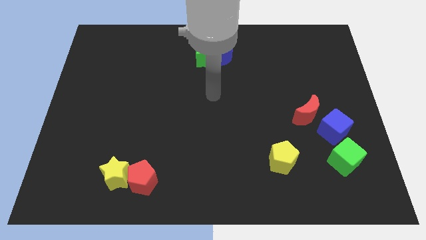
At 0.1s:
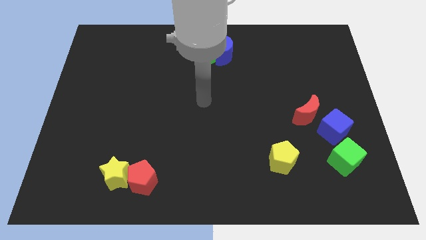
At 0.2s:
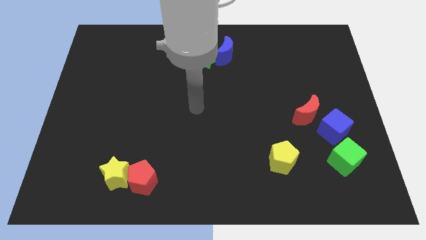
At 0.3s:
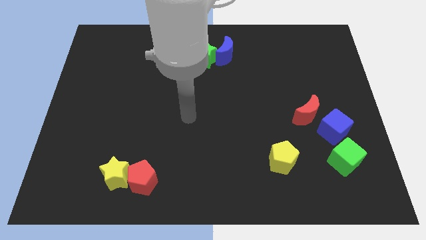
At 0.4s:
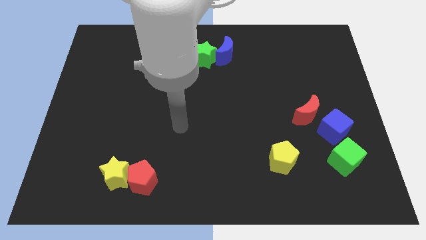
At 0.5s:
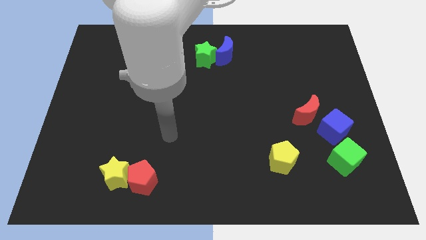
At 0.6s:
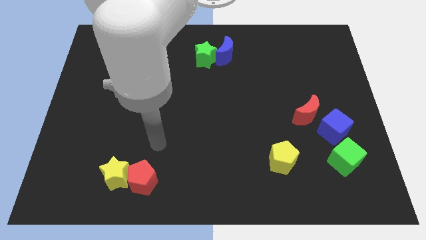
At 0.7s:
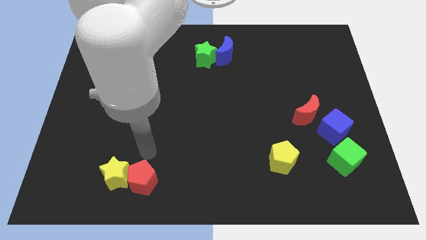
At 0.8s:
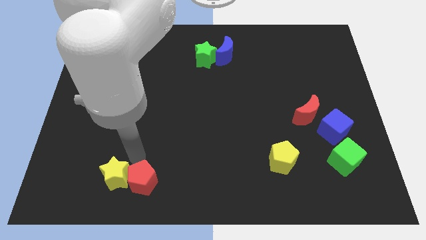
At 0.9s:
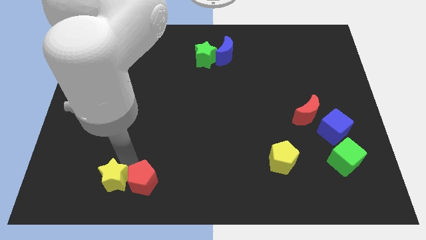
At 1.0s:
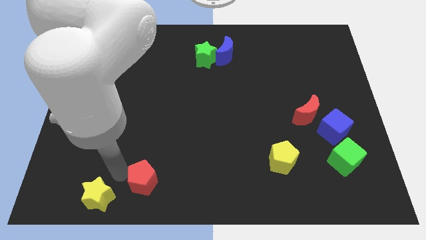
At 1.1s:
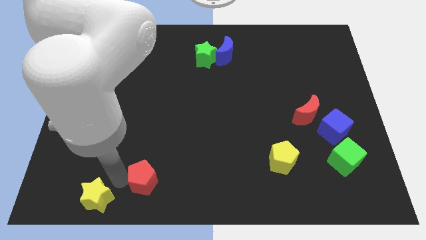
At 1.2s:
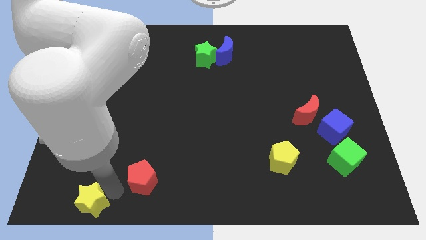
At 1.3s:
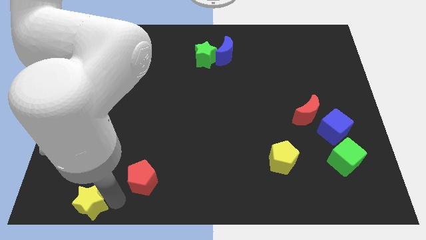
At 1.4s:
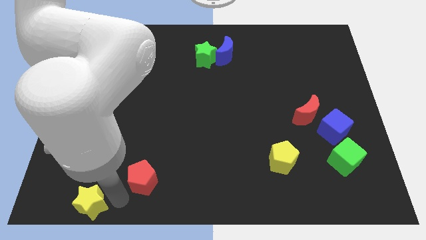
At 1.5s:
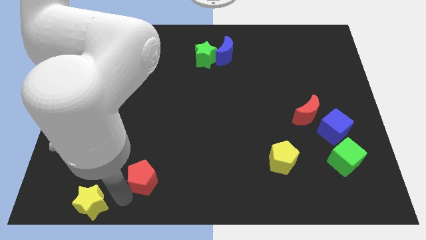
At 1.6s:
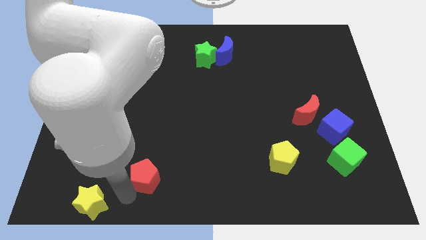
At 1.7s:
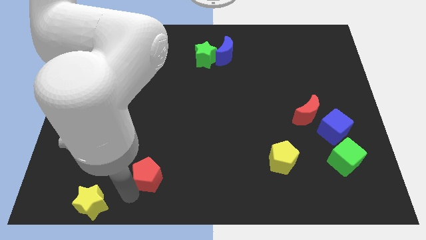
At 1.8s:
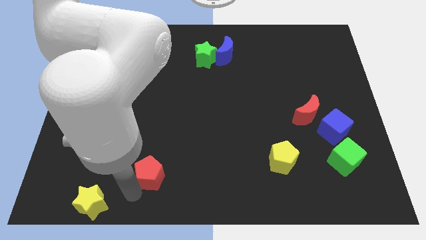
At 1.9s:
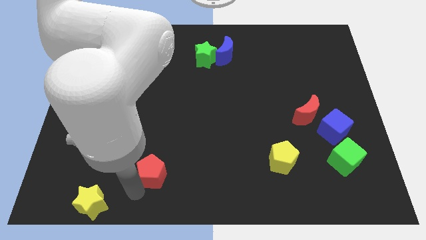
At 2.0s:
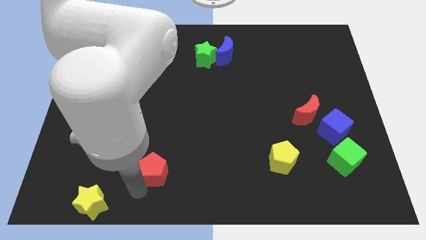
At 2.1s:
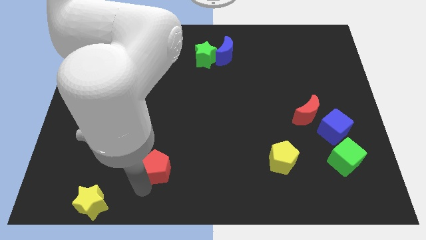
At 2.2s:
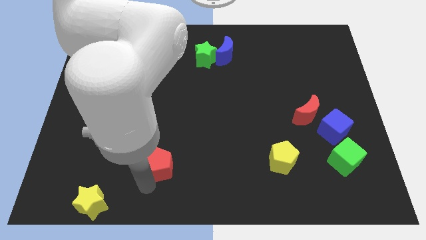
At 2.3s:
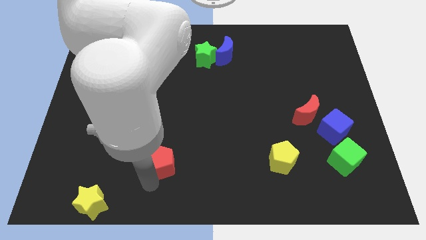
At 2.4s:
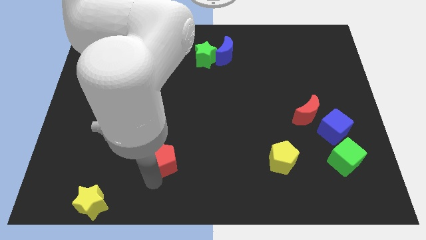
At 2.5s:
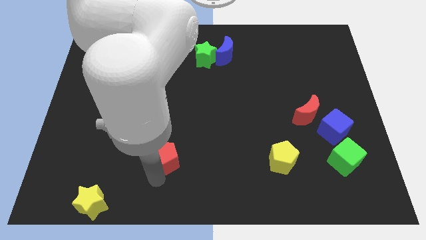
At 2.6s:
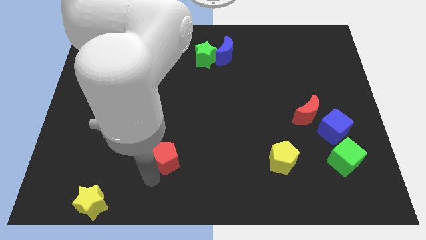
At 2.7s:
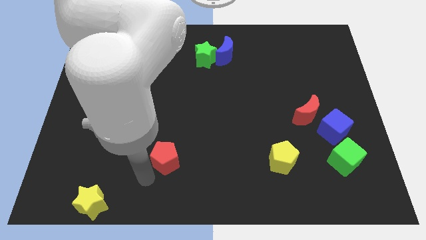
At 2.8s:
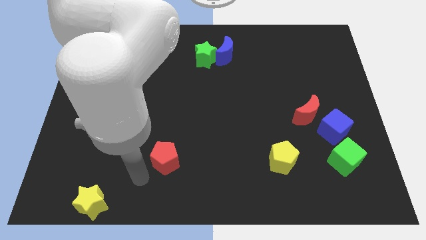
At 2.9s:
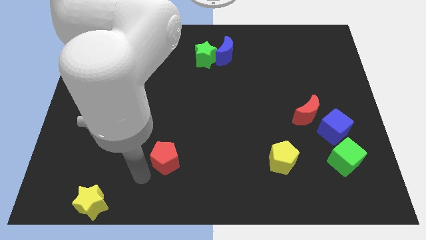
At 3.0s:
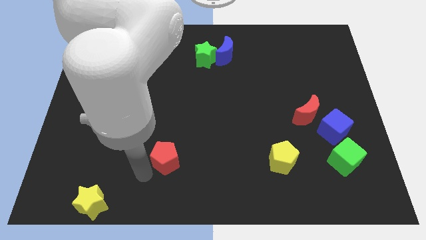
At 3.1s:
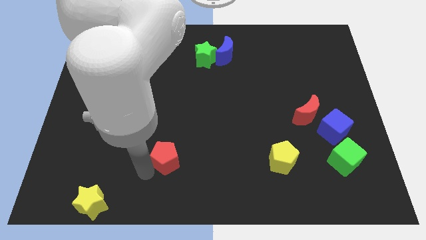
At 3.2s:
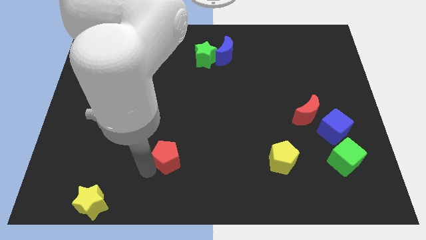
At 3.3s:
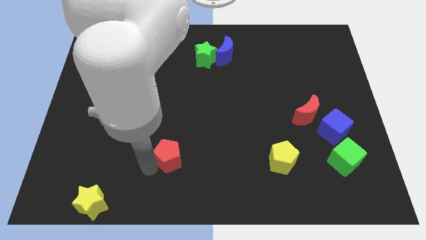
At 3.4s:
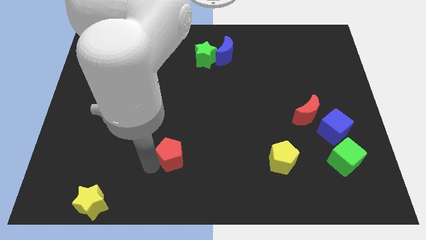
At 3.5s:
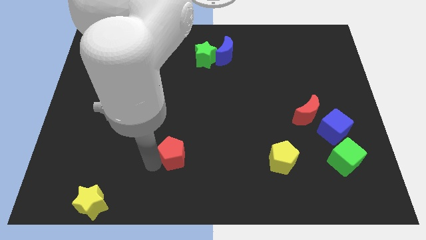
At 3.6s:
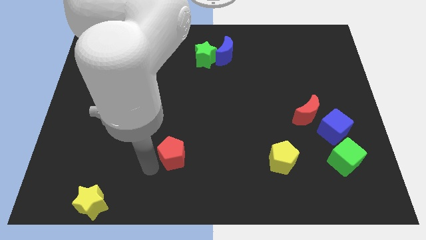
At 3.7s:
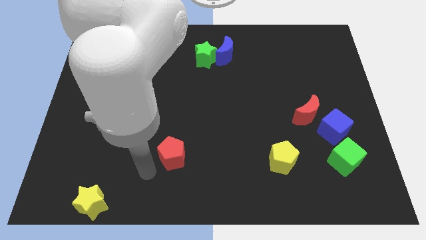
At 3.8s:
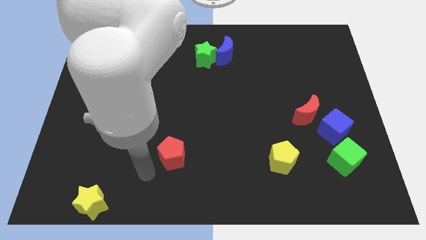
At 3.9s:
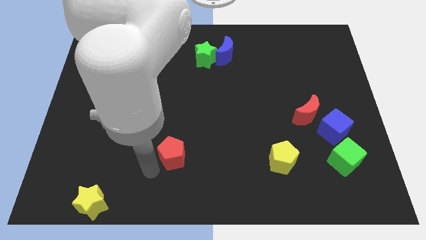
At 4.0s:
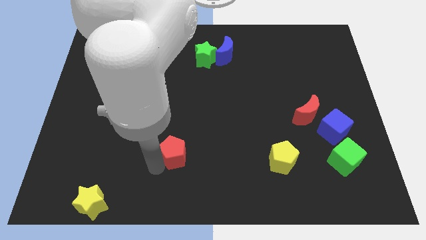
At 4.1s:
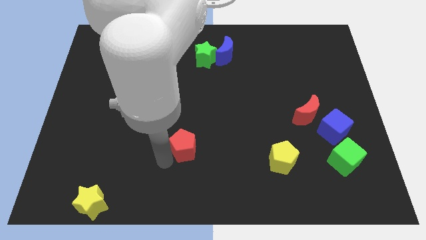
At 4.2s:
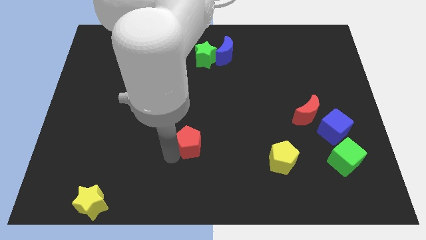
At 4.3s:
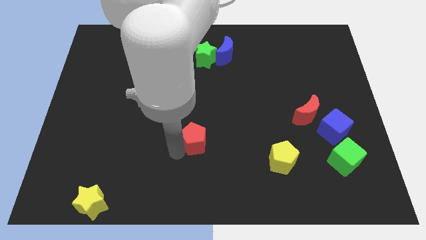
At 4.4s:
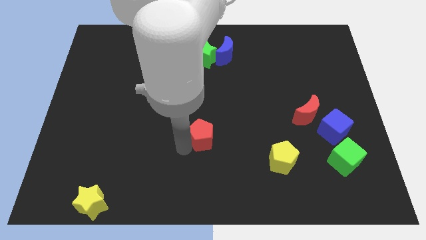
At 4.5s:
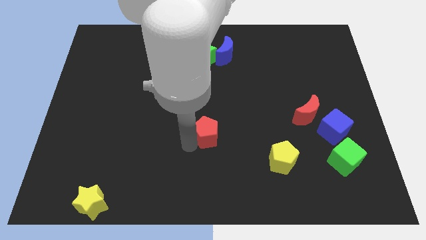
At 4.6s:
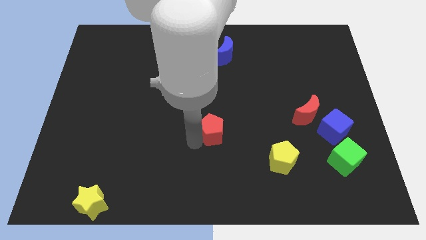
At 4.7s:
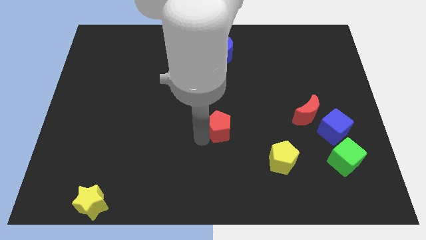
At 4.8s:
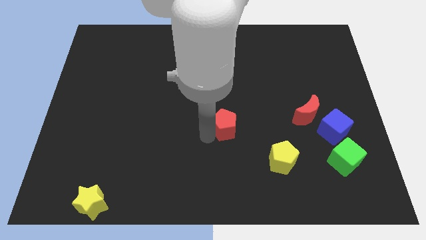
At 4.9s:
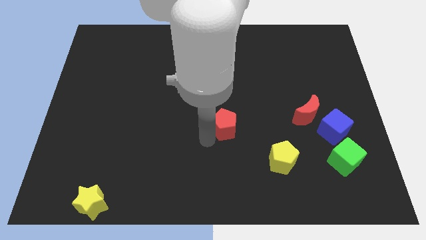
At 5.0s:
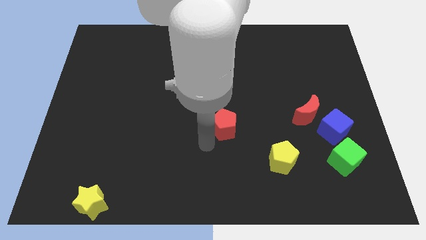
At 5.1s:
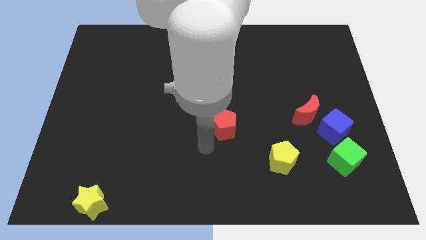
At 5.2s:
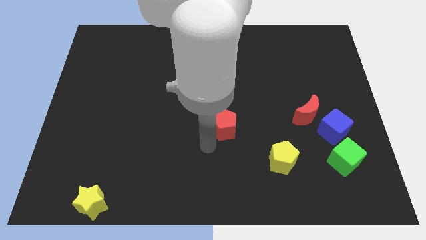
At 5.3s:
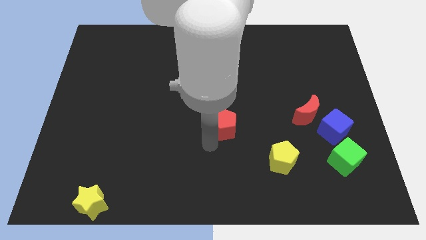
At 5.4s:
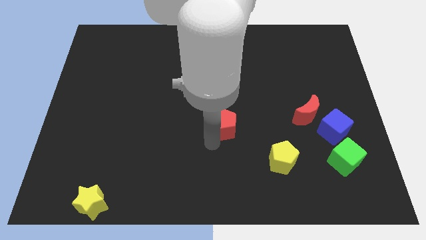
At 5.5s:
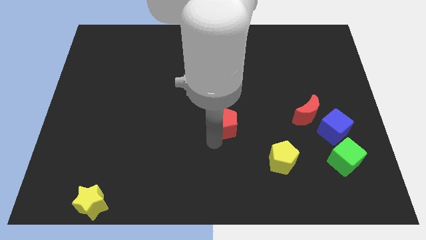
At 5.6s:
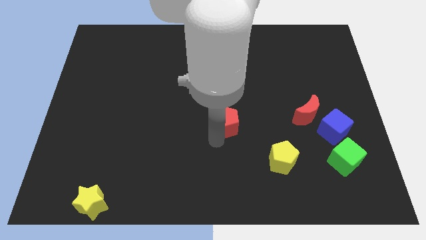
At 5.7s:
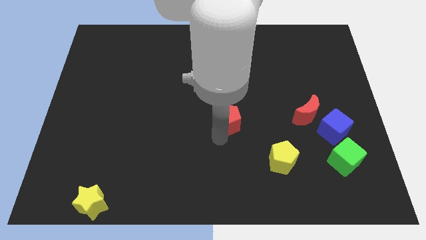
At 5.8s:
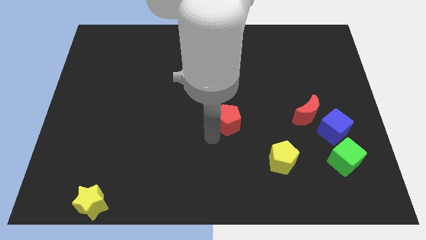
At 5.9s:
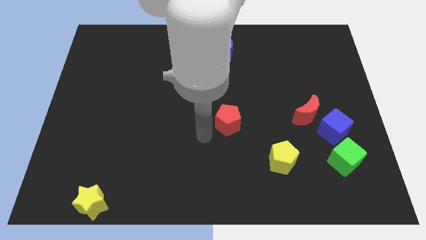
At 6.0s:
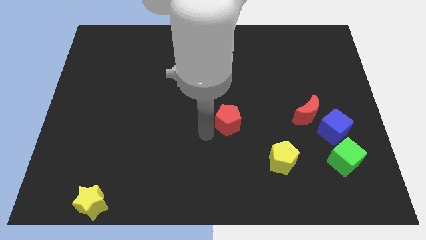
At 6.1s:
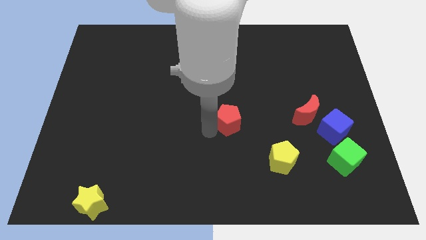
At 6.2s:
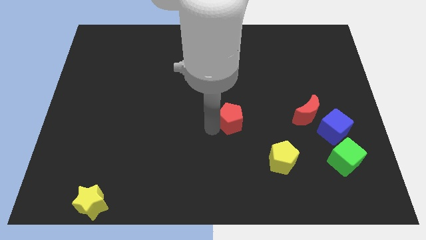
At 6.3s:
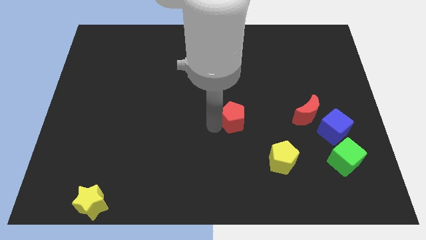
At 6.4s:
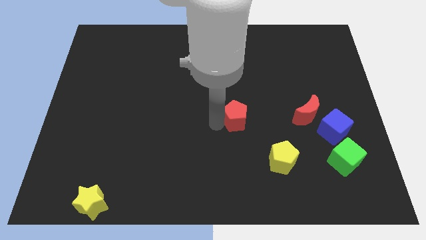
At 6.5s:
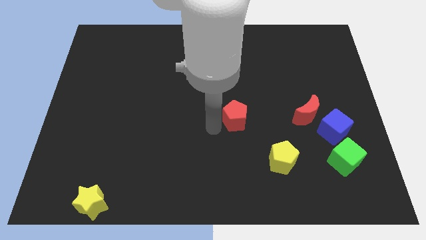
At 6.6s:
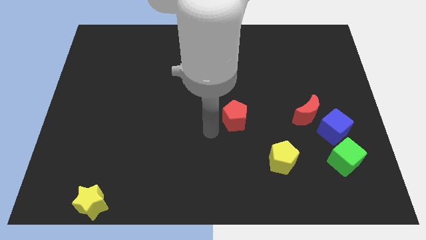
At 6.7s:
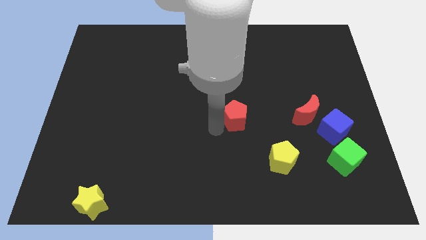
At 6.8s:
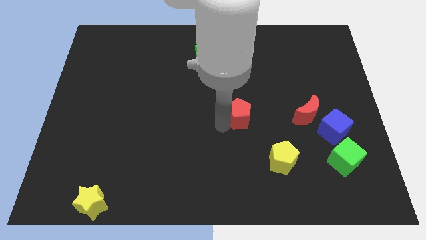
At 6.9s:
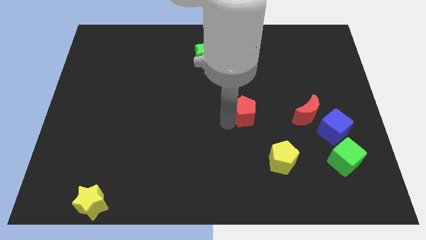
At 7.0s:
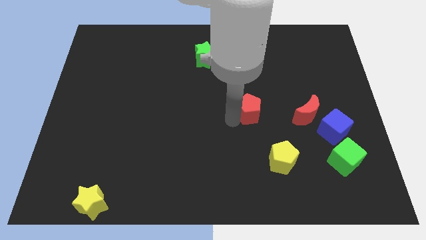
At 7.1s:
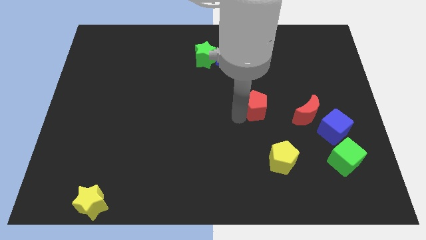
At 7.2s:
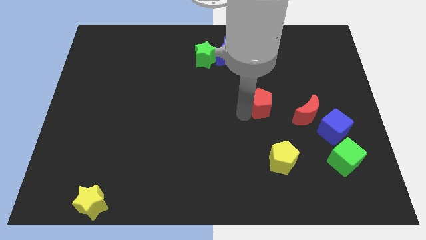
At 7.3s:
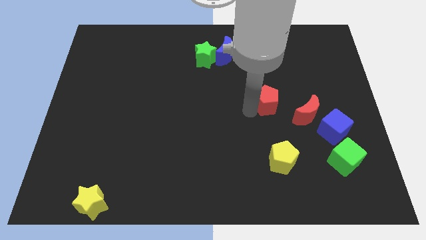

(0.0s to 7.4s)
move the red pentagon diagonally up and to the left of the red moon

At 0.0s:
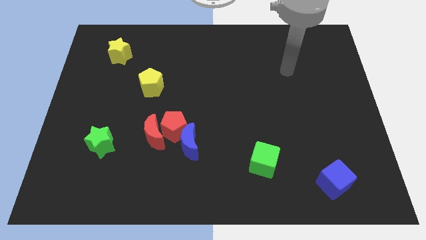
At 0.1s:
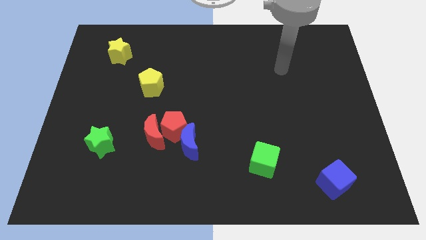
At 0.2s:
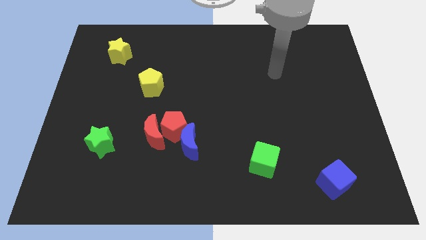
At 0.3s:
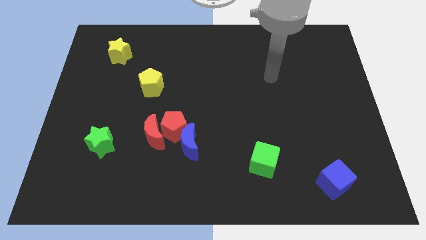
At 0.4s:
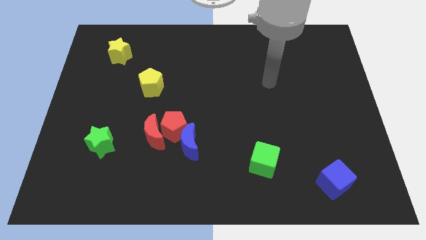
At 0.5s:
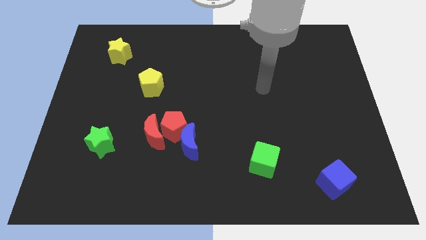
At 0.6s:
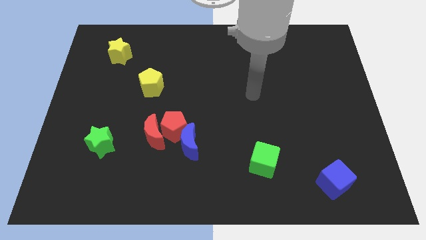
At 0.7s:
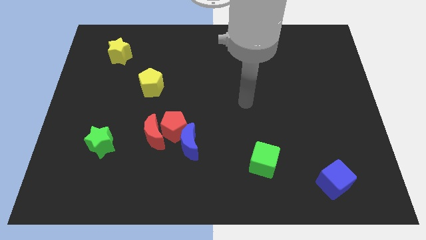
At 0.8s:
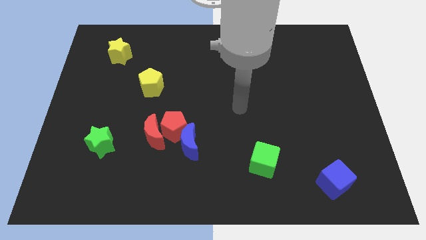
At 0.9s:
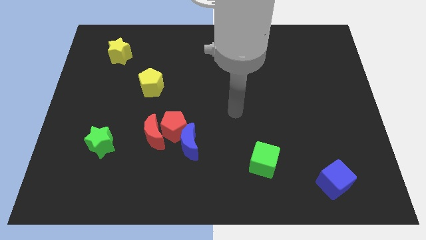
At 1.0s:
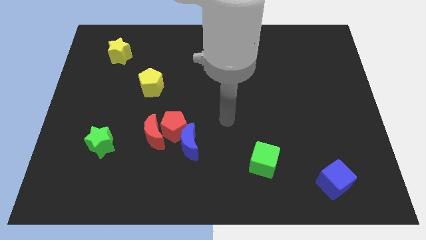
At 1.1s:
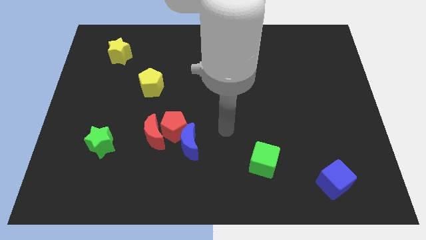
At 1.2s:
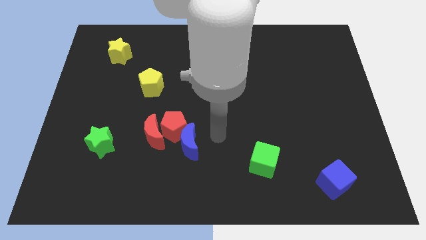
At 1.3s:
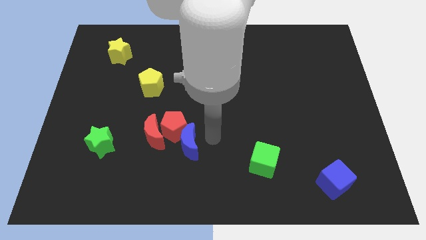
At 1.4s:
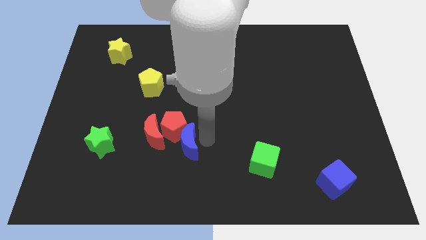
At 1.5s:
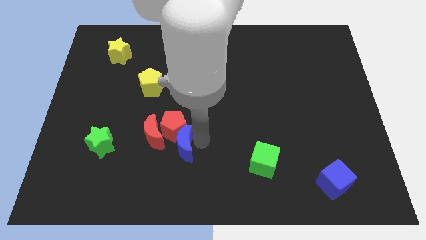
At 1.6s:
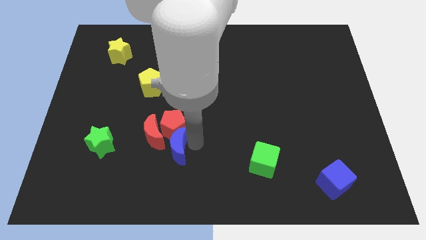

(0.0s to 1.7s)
move the blue moon to the bottom left side of the red pentagon
